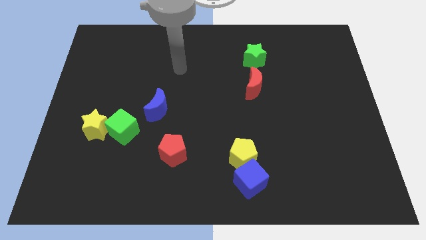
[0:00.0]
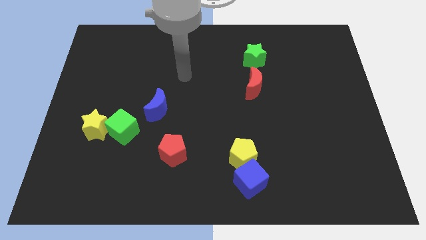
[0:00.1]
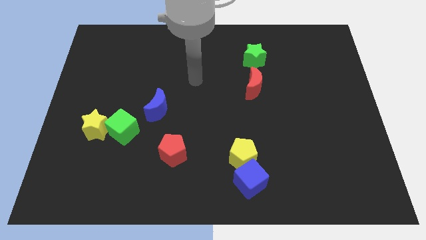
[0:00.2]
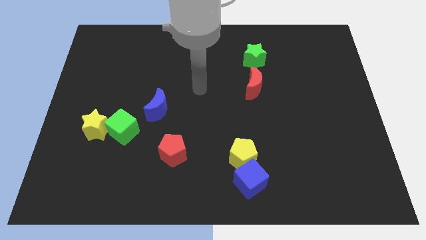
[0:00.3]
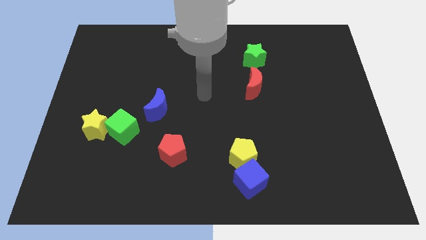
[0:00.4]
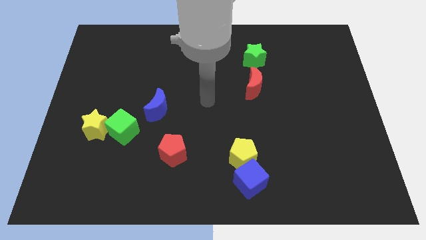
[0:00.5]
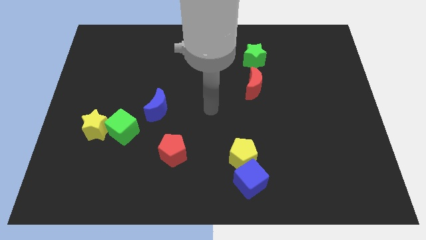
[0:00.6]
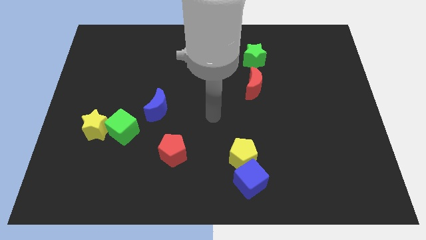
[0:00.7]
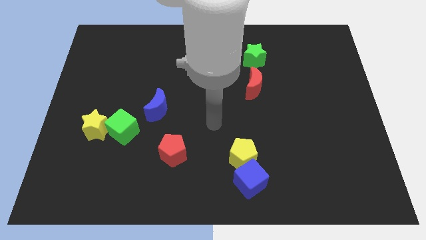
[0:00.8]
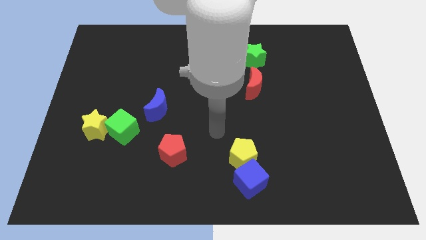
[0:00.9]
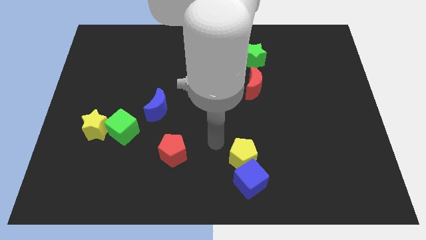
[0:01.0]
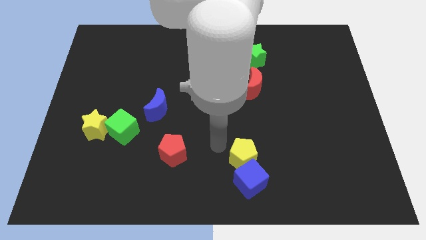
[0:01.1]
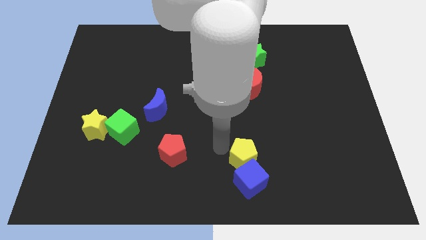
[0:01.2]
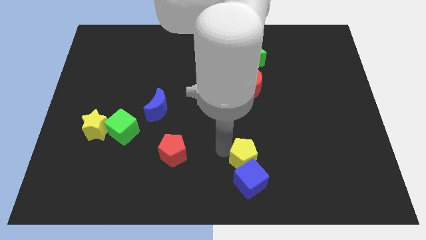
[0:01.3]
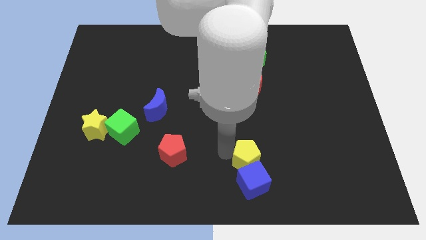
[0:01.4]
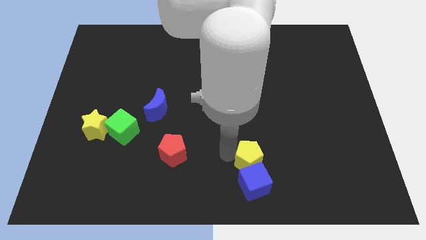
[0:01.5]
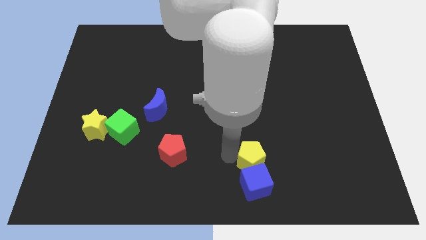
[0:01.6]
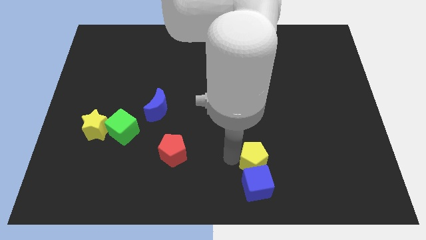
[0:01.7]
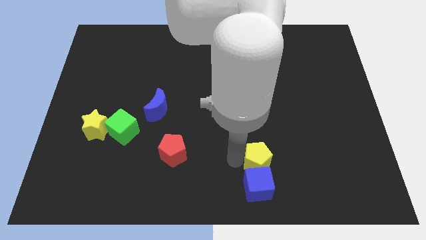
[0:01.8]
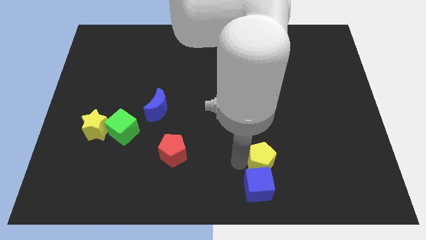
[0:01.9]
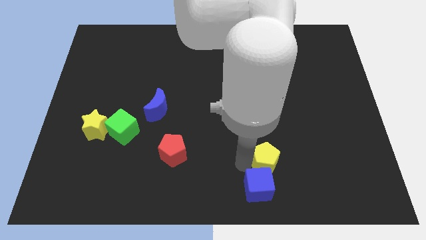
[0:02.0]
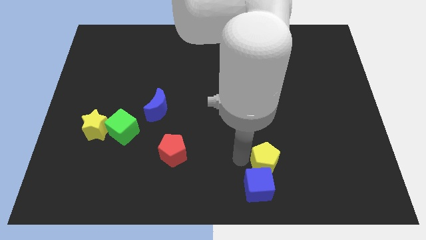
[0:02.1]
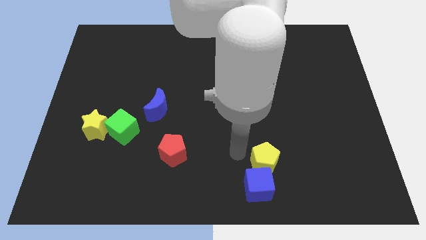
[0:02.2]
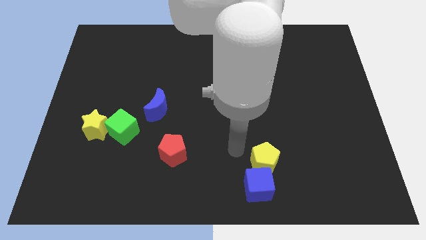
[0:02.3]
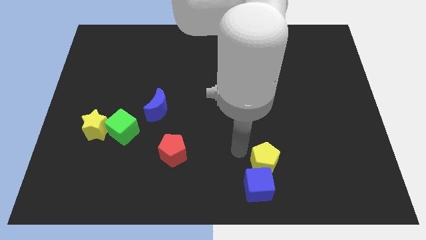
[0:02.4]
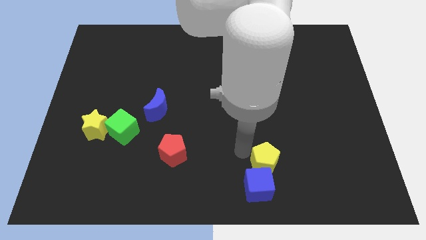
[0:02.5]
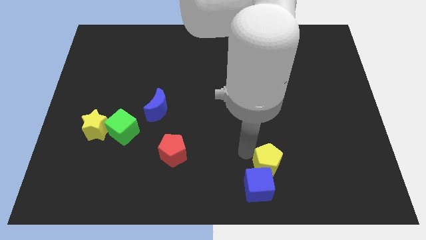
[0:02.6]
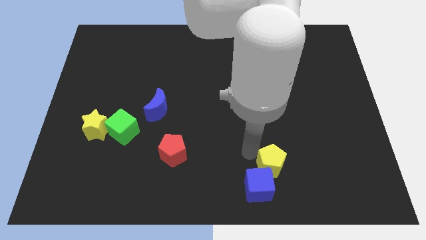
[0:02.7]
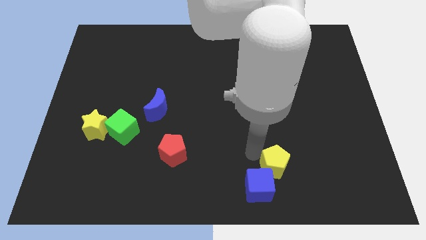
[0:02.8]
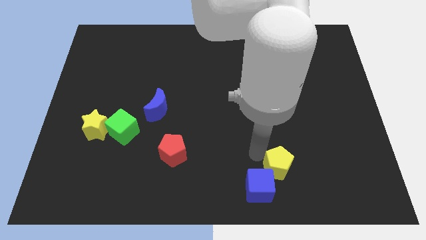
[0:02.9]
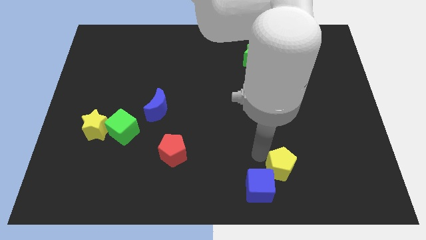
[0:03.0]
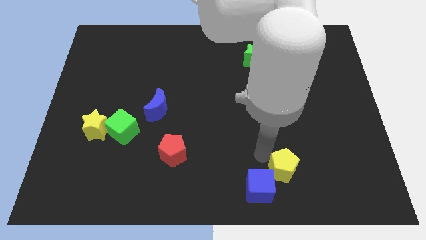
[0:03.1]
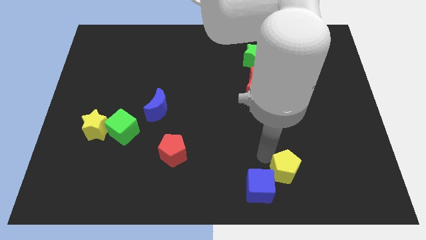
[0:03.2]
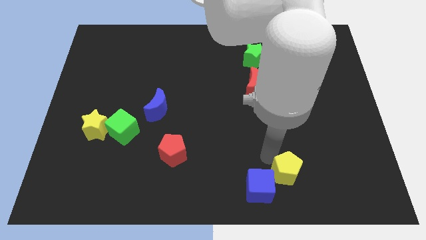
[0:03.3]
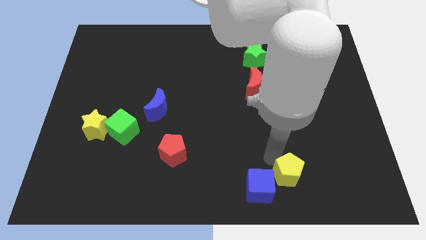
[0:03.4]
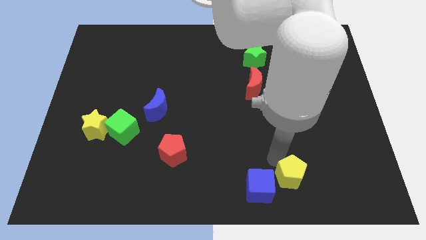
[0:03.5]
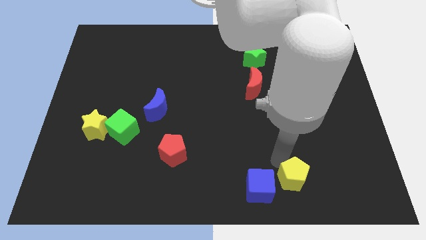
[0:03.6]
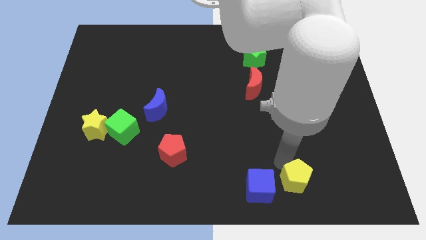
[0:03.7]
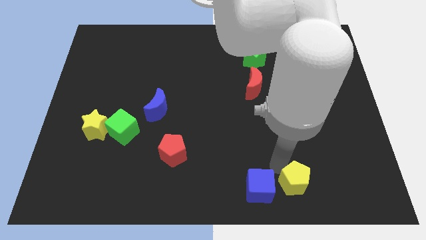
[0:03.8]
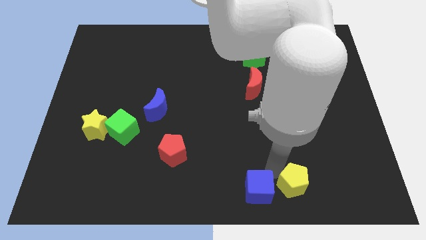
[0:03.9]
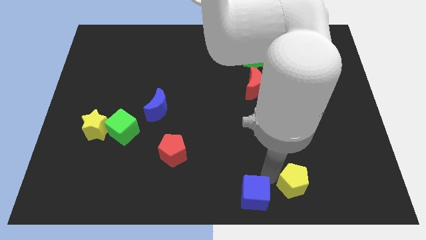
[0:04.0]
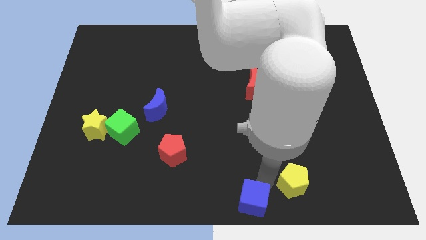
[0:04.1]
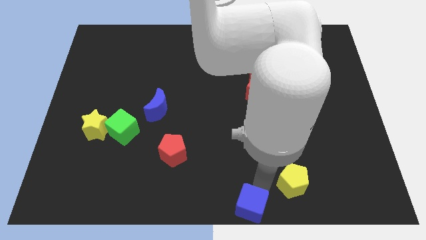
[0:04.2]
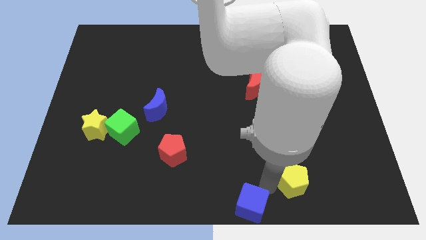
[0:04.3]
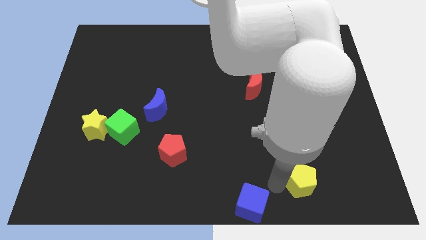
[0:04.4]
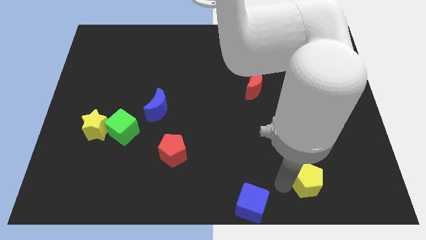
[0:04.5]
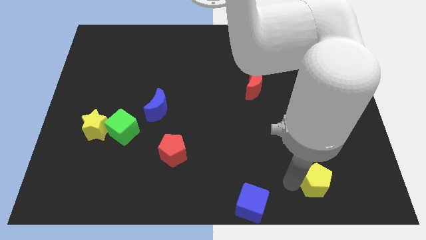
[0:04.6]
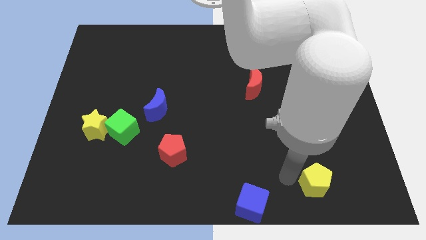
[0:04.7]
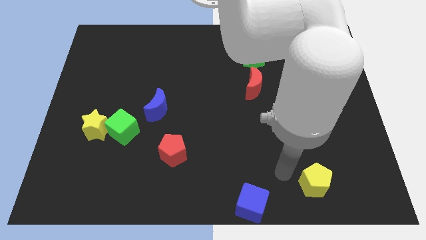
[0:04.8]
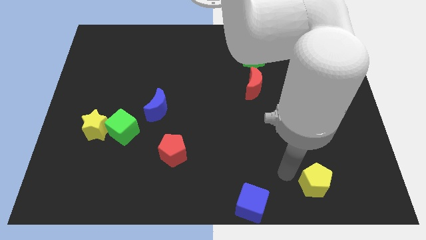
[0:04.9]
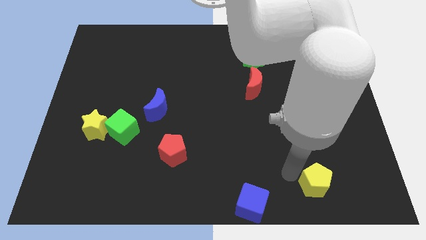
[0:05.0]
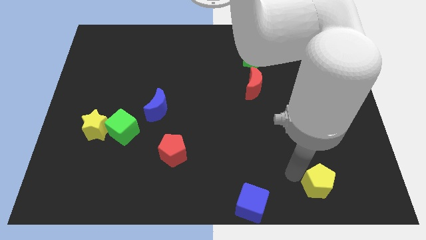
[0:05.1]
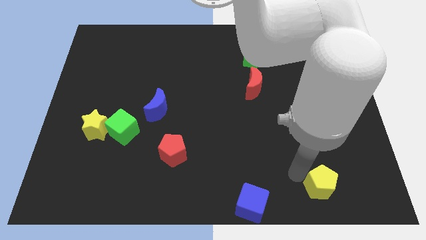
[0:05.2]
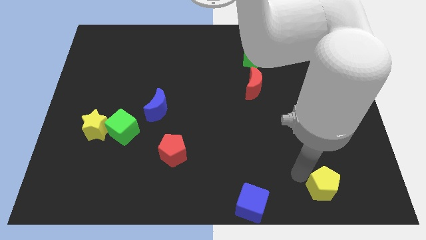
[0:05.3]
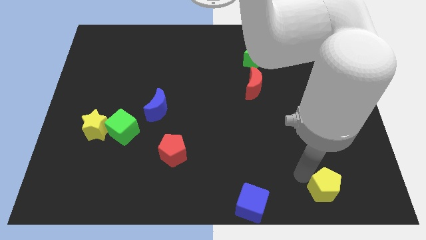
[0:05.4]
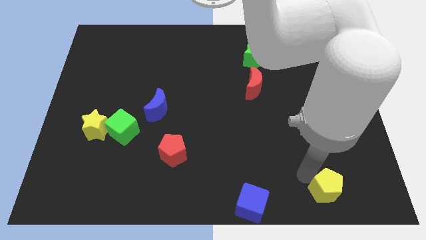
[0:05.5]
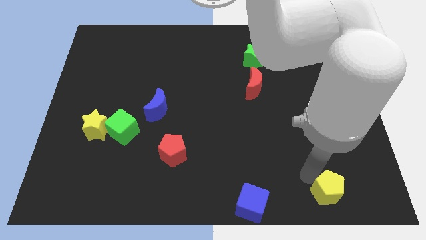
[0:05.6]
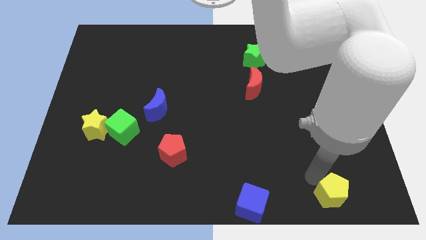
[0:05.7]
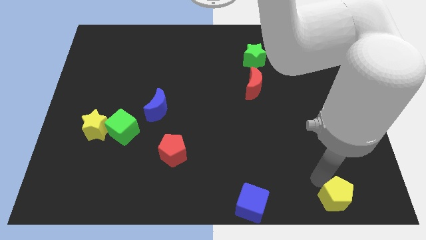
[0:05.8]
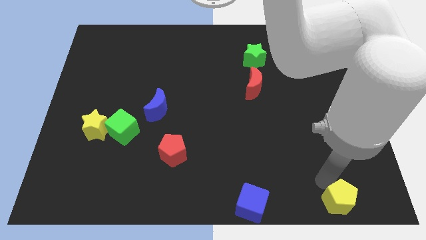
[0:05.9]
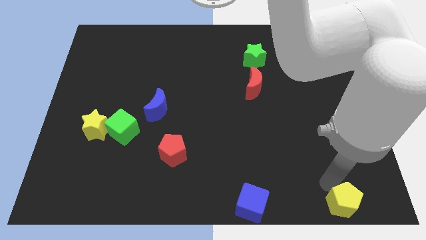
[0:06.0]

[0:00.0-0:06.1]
move the yellow pentagon to the bottom right of the board
